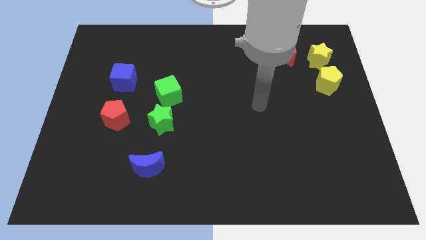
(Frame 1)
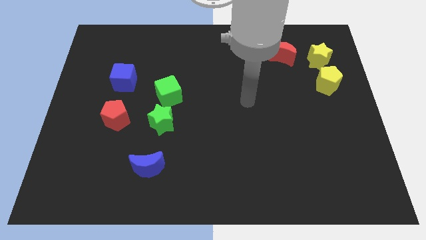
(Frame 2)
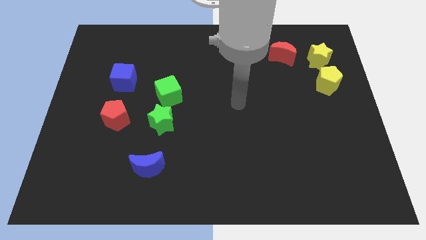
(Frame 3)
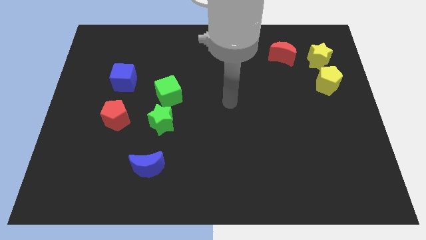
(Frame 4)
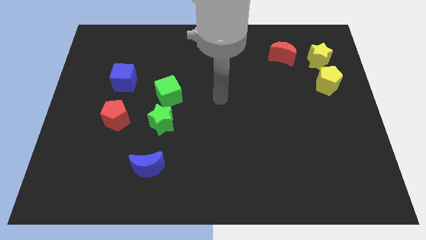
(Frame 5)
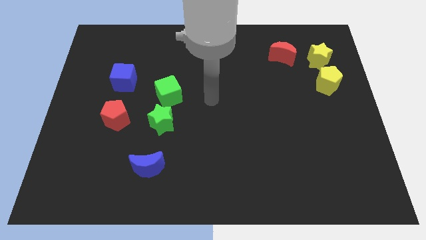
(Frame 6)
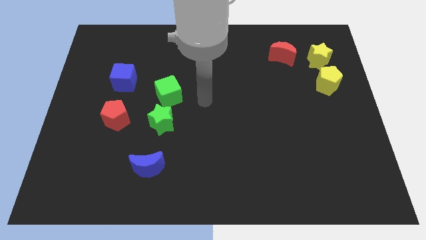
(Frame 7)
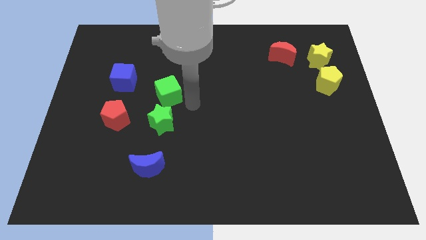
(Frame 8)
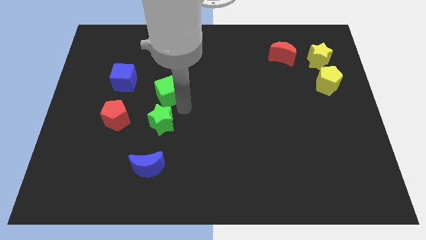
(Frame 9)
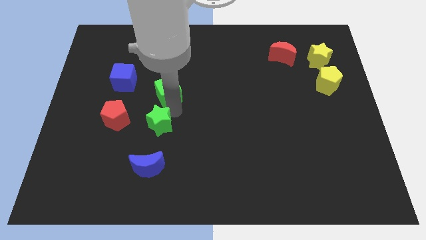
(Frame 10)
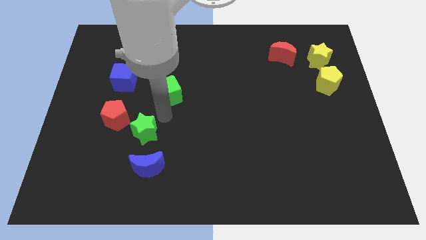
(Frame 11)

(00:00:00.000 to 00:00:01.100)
move the green cube away from the green star

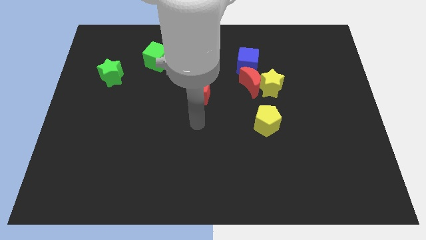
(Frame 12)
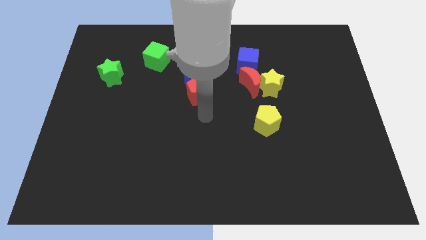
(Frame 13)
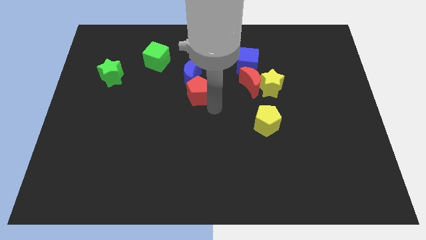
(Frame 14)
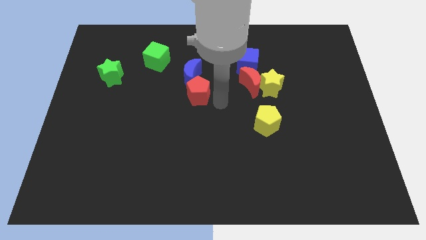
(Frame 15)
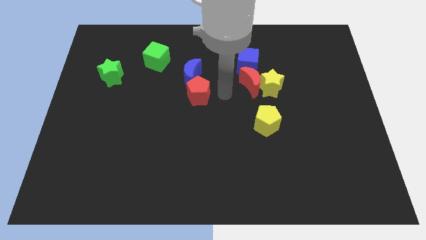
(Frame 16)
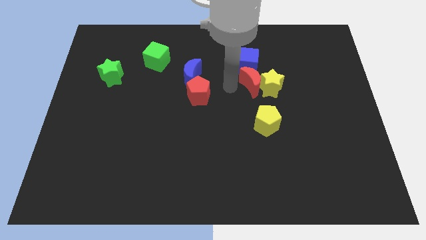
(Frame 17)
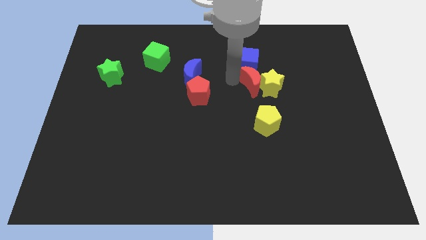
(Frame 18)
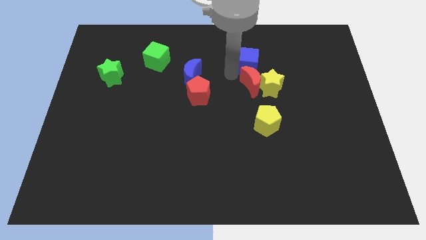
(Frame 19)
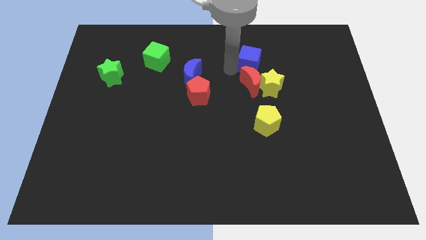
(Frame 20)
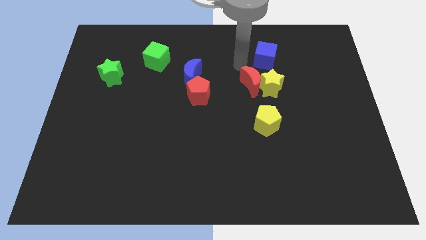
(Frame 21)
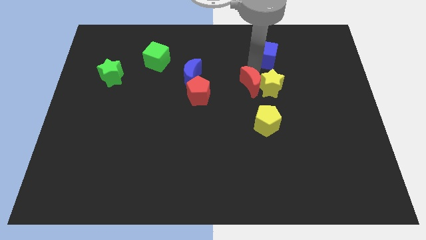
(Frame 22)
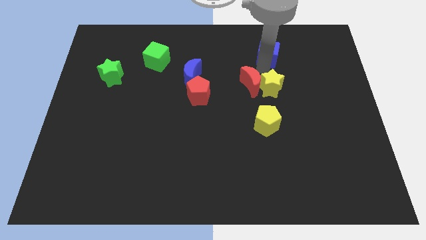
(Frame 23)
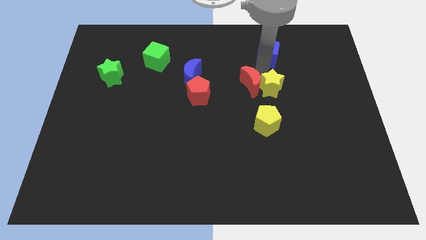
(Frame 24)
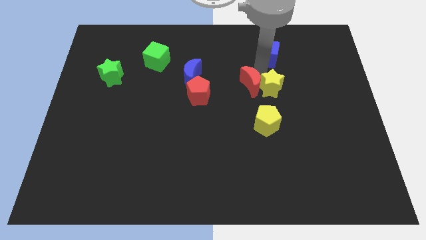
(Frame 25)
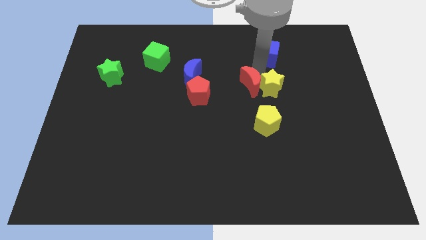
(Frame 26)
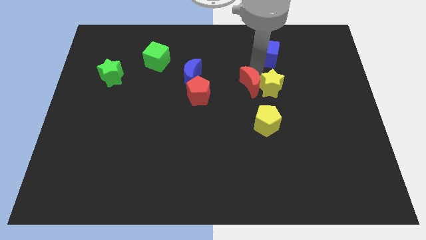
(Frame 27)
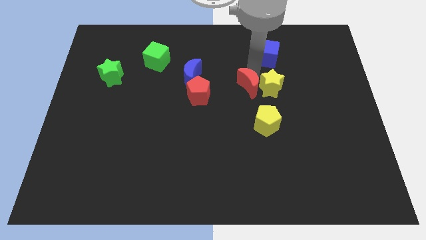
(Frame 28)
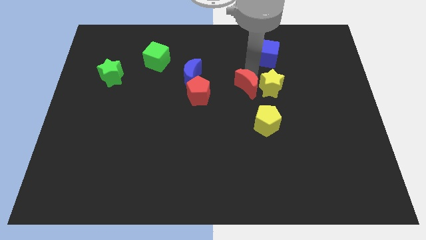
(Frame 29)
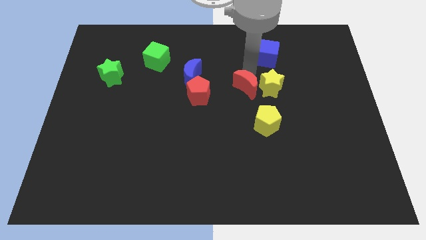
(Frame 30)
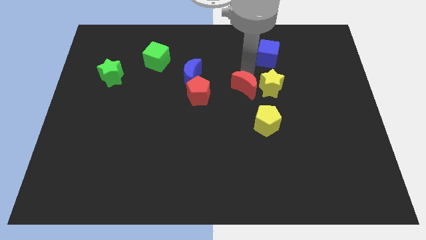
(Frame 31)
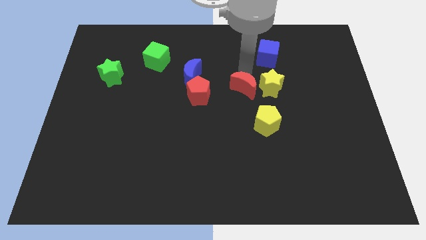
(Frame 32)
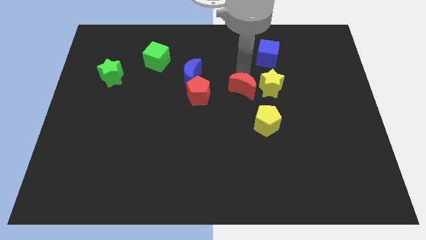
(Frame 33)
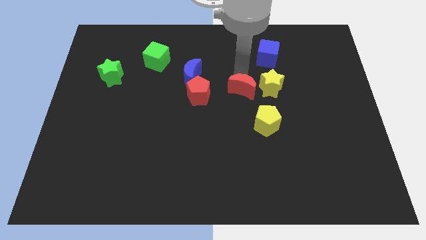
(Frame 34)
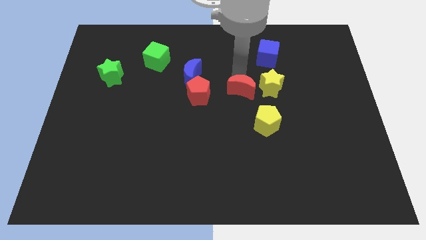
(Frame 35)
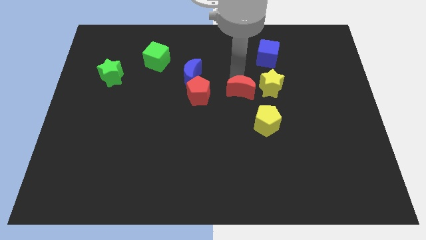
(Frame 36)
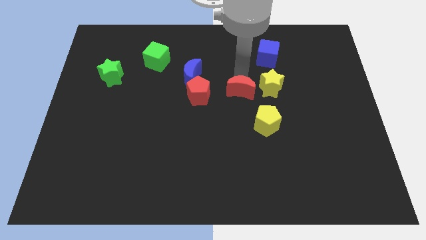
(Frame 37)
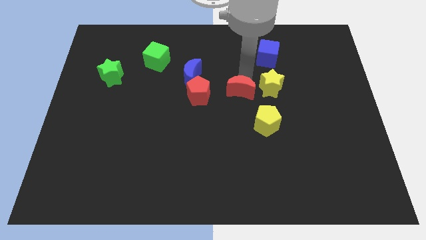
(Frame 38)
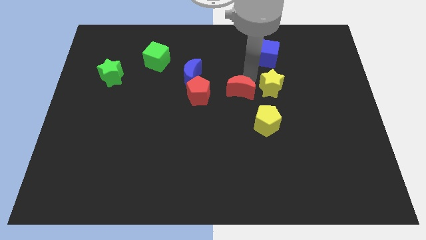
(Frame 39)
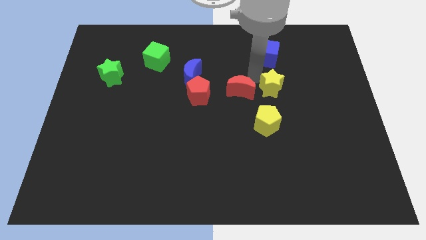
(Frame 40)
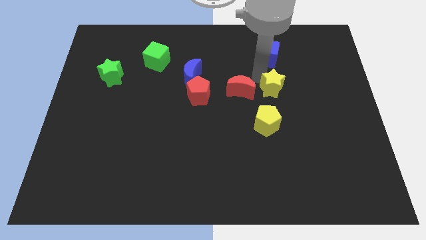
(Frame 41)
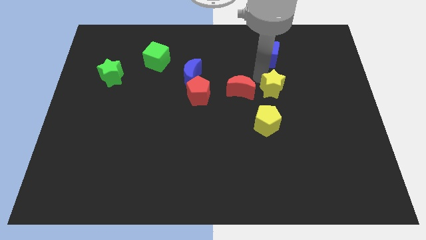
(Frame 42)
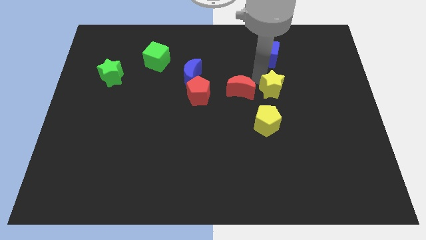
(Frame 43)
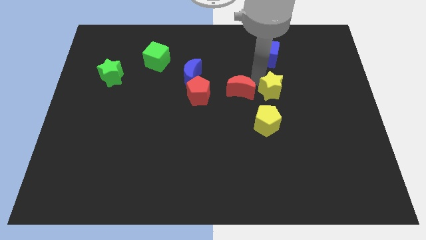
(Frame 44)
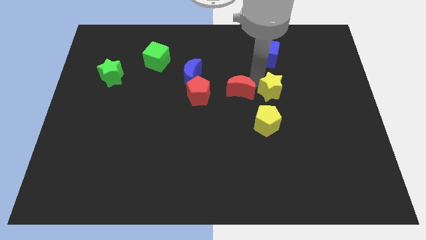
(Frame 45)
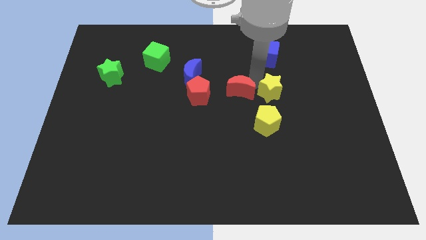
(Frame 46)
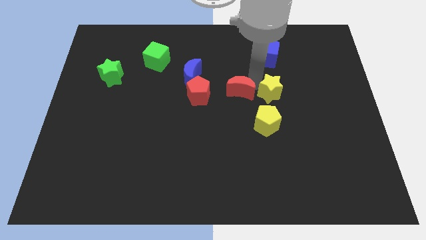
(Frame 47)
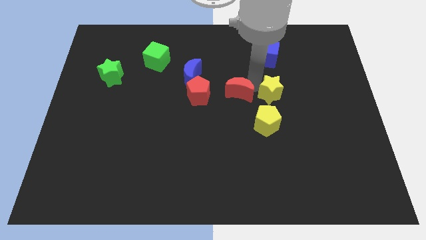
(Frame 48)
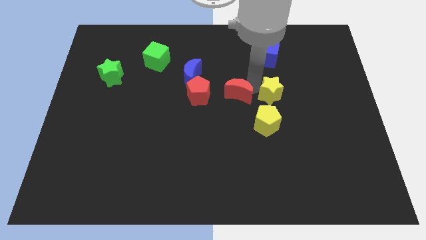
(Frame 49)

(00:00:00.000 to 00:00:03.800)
separate the red moon from the yellow star and blue cube

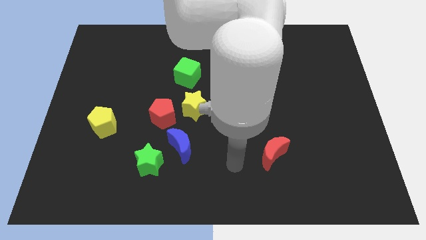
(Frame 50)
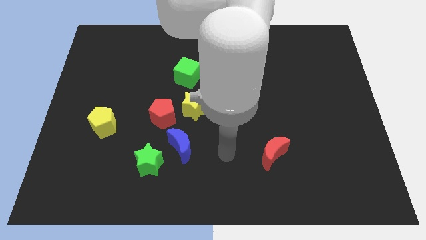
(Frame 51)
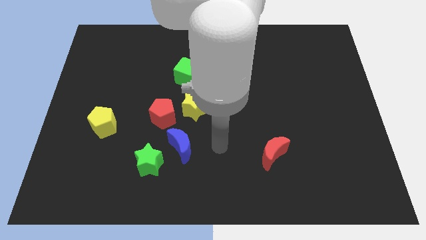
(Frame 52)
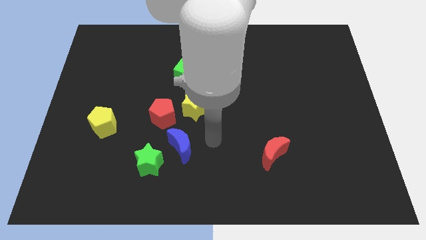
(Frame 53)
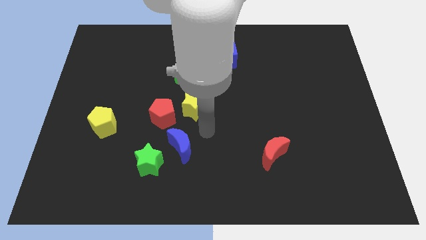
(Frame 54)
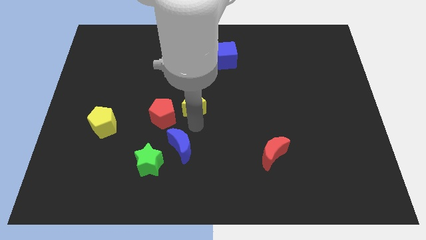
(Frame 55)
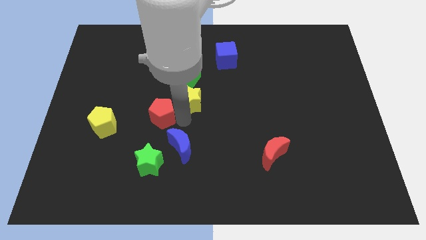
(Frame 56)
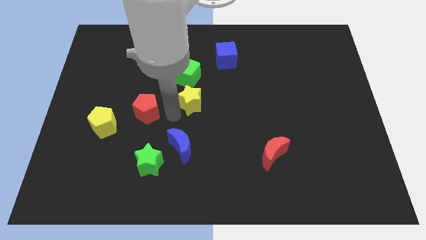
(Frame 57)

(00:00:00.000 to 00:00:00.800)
pull the yellow star apart from the red pentagon

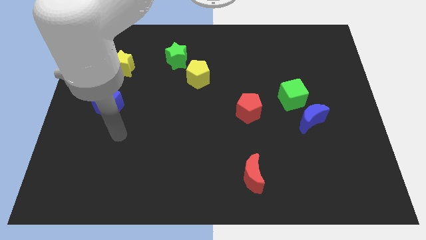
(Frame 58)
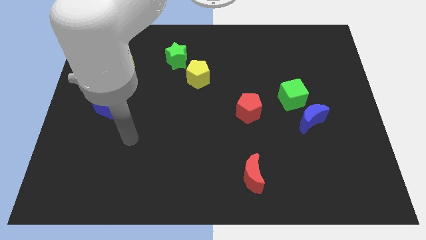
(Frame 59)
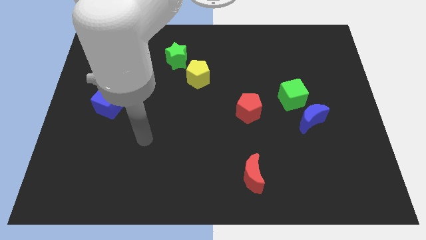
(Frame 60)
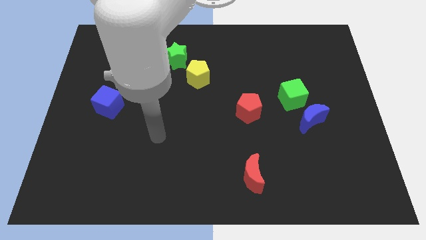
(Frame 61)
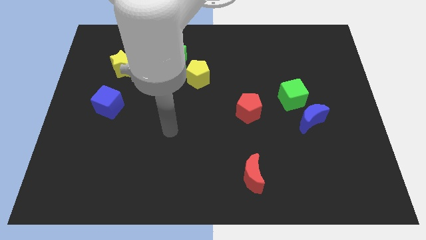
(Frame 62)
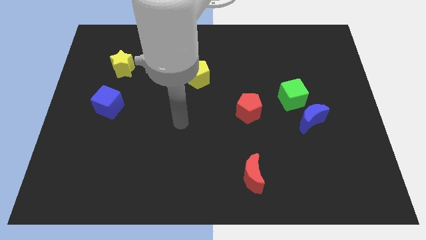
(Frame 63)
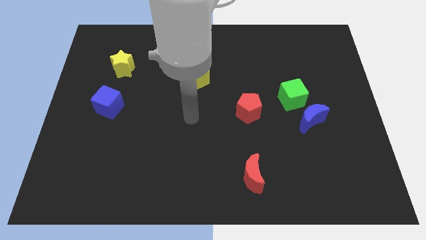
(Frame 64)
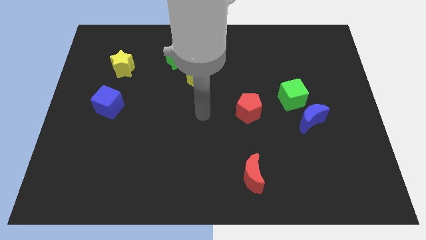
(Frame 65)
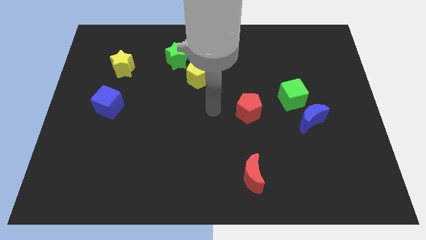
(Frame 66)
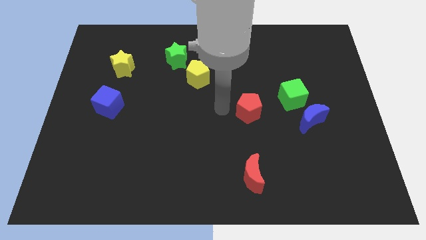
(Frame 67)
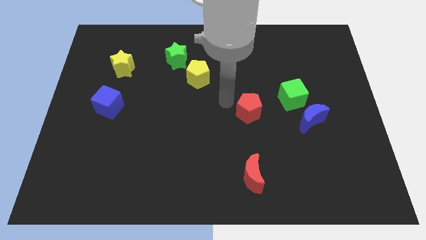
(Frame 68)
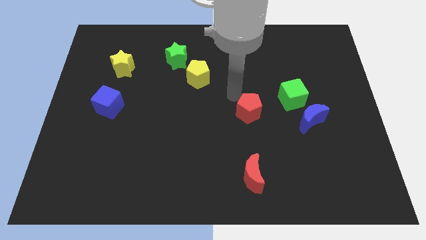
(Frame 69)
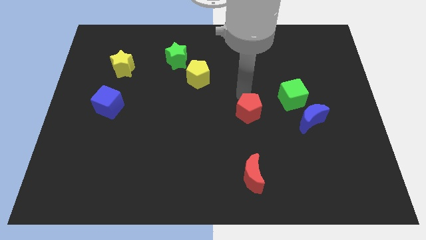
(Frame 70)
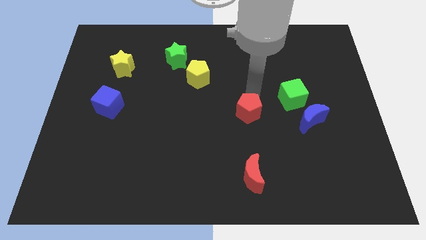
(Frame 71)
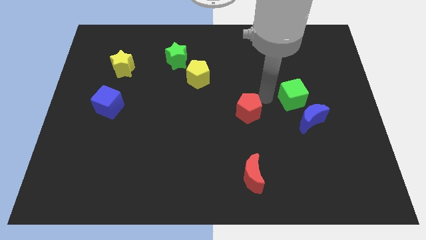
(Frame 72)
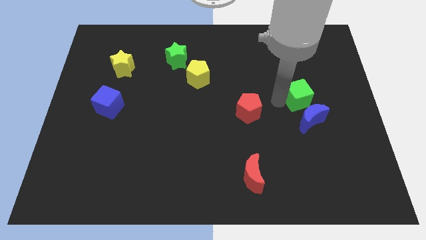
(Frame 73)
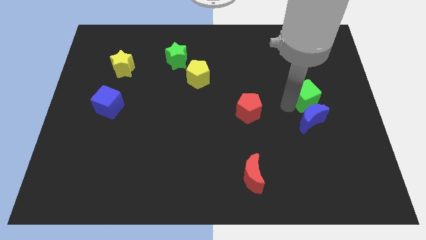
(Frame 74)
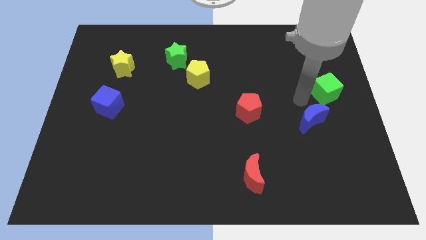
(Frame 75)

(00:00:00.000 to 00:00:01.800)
move the blue moon away from the green cube

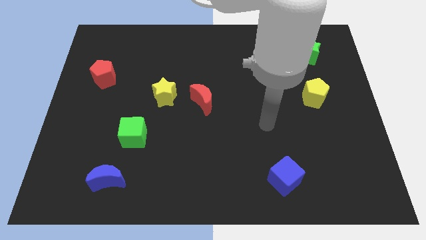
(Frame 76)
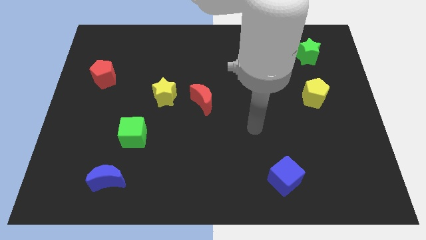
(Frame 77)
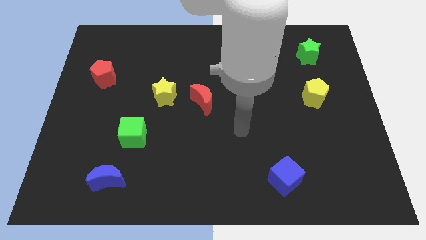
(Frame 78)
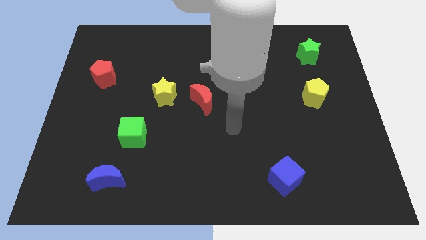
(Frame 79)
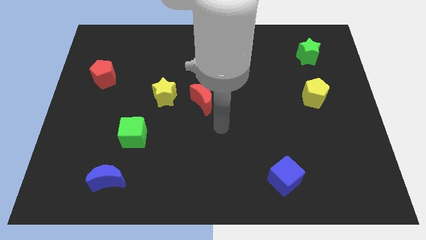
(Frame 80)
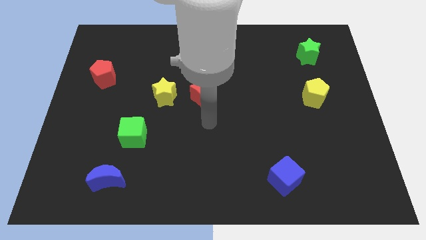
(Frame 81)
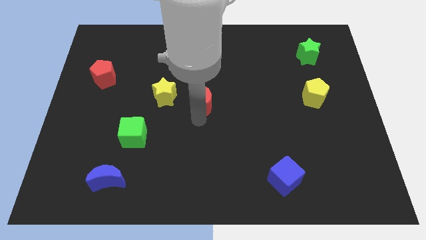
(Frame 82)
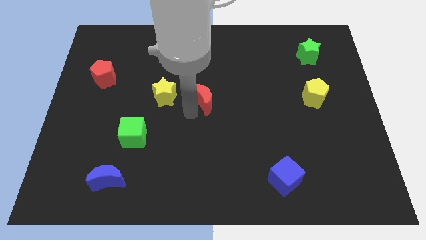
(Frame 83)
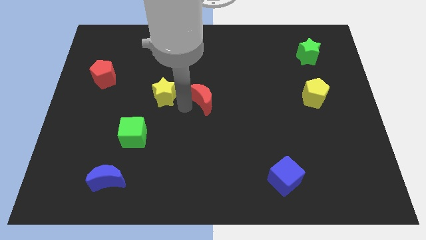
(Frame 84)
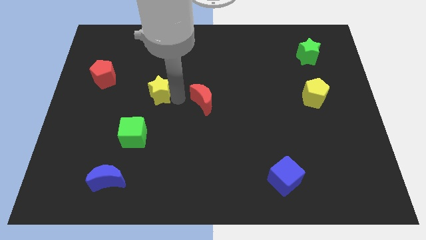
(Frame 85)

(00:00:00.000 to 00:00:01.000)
pull the red moon apart from the yellow star

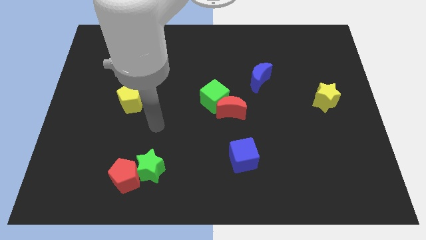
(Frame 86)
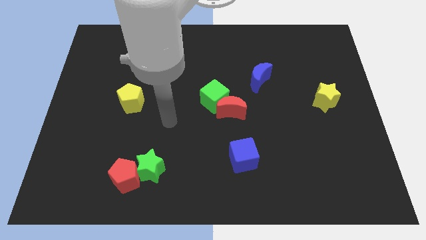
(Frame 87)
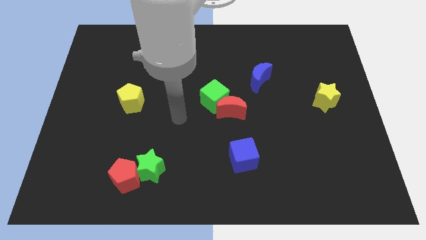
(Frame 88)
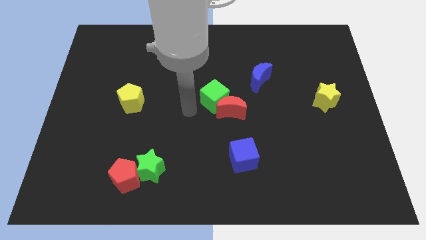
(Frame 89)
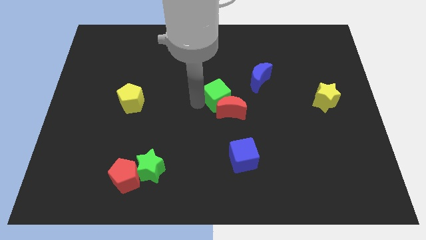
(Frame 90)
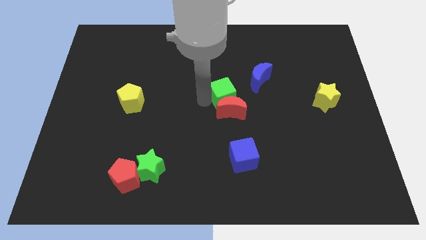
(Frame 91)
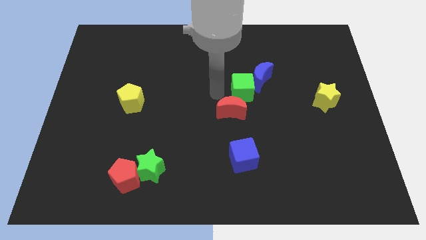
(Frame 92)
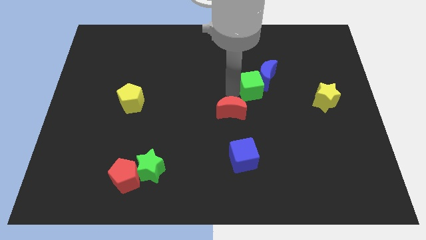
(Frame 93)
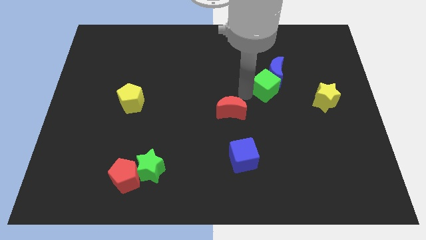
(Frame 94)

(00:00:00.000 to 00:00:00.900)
move the red moon away from the green cube
